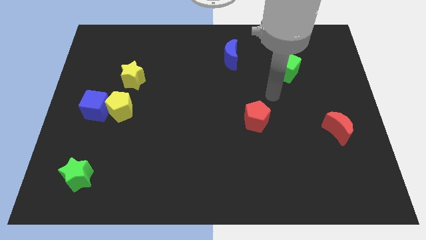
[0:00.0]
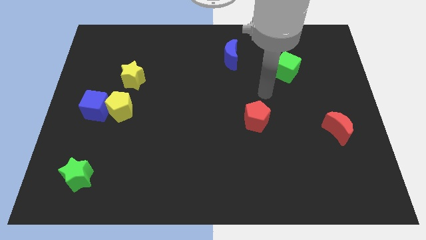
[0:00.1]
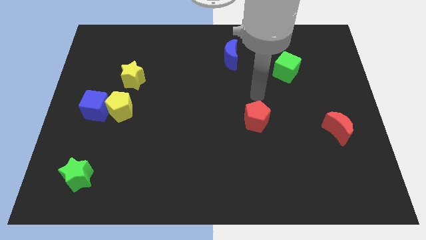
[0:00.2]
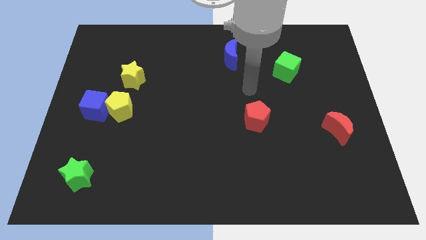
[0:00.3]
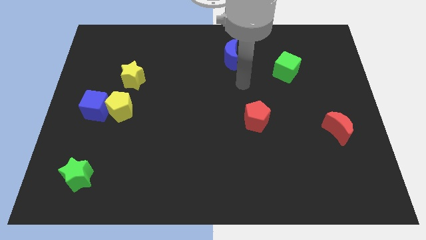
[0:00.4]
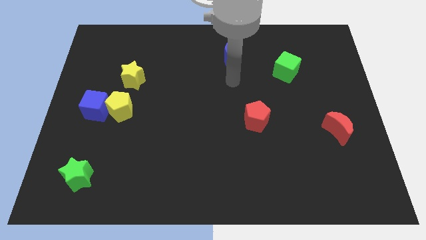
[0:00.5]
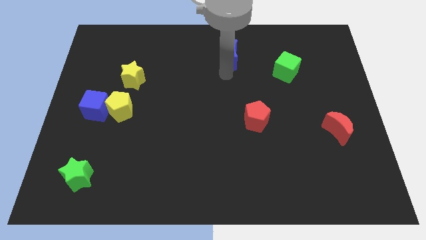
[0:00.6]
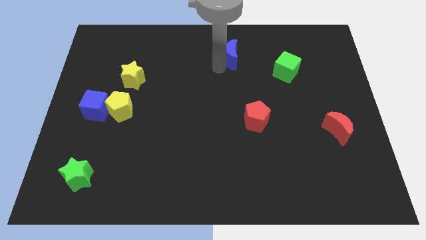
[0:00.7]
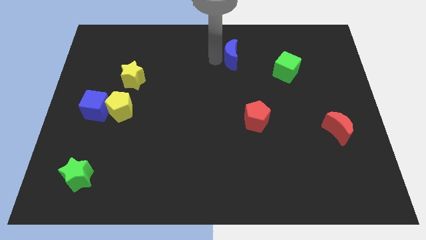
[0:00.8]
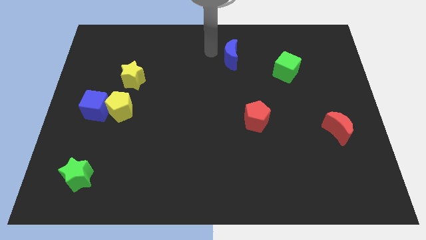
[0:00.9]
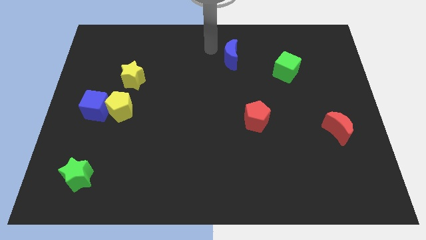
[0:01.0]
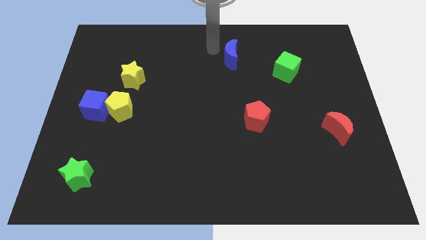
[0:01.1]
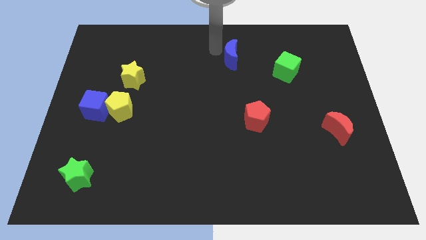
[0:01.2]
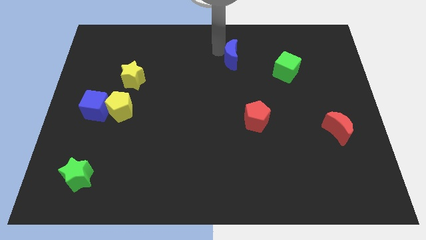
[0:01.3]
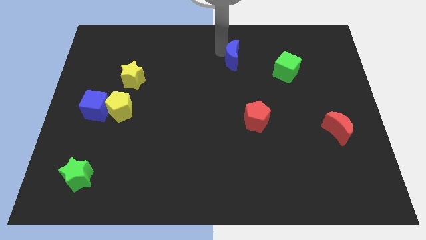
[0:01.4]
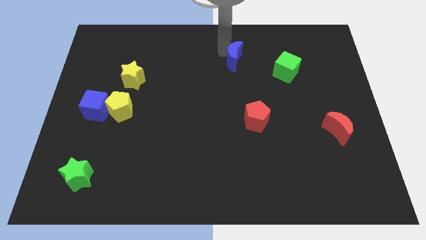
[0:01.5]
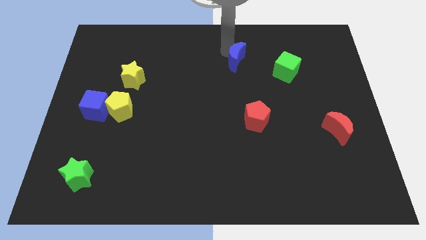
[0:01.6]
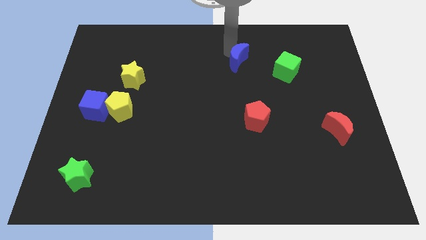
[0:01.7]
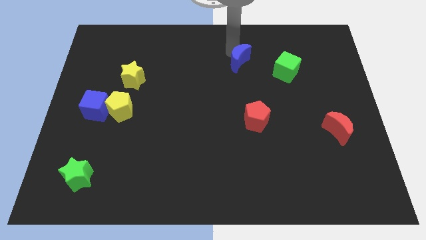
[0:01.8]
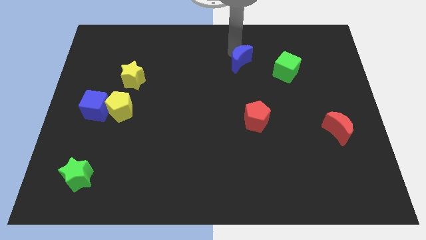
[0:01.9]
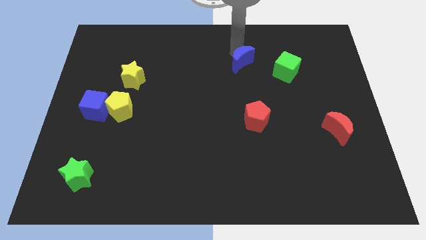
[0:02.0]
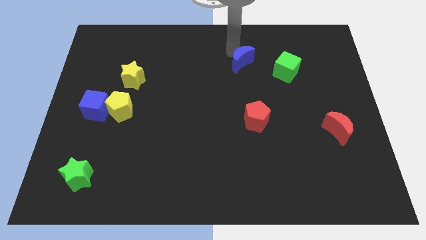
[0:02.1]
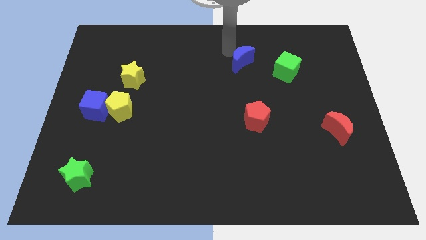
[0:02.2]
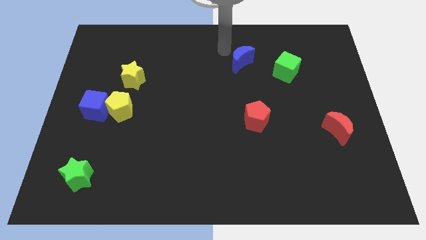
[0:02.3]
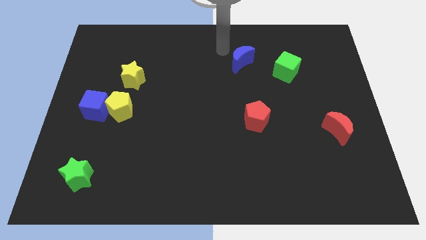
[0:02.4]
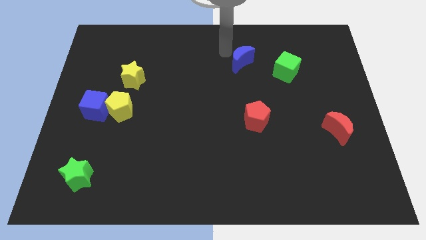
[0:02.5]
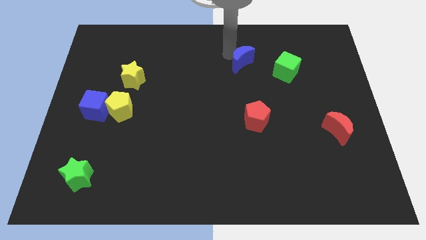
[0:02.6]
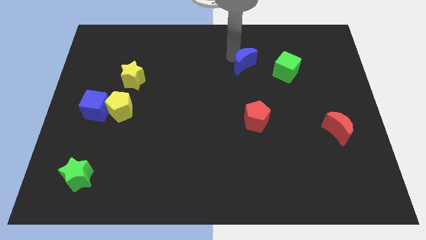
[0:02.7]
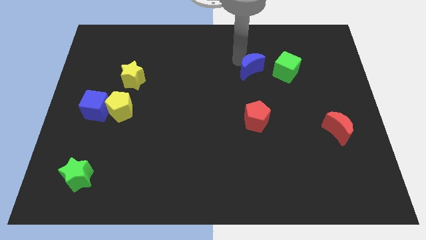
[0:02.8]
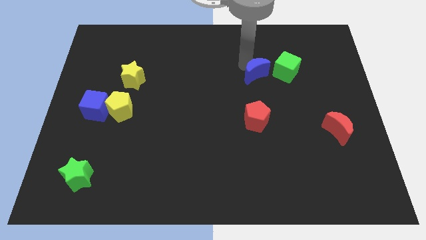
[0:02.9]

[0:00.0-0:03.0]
slide the blue moon down and to the right somewhat

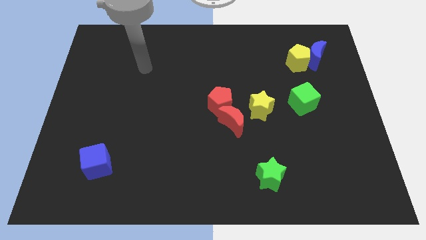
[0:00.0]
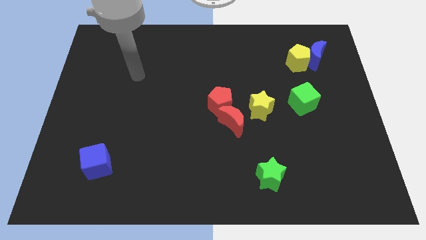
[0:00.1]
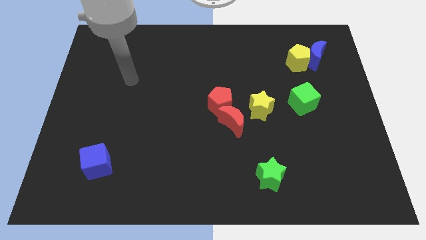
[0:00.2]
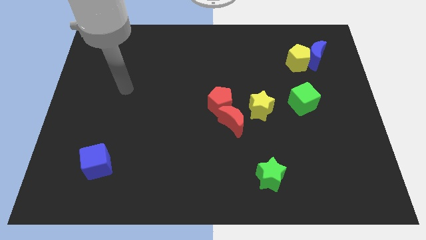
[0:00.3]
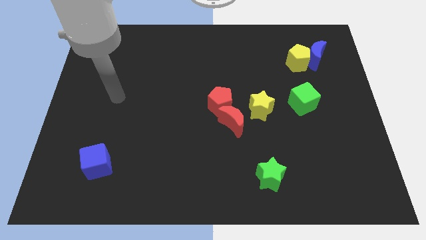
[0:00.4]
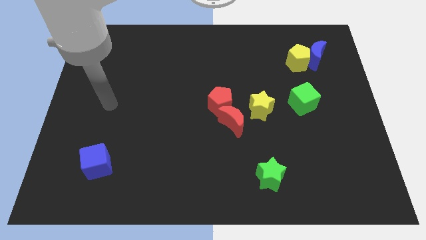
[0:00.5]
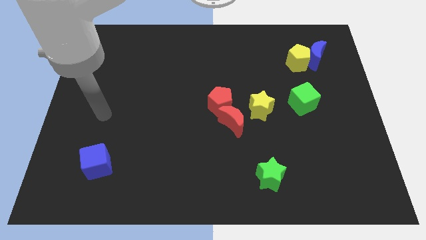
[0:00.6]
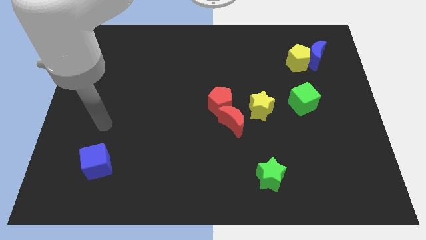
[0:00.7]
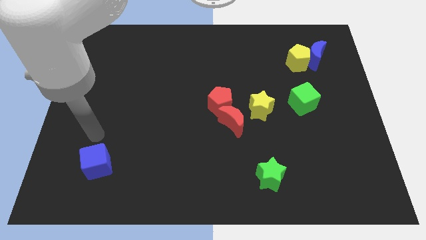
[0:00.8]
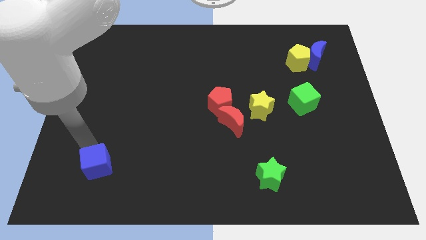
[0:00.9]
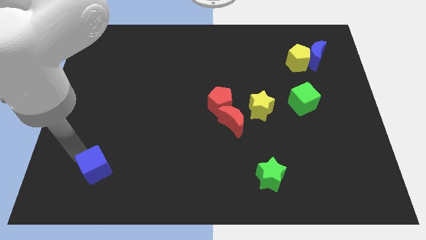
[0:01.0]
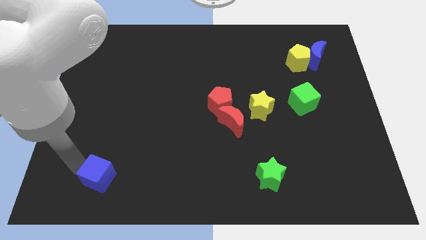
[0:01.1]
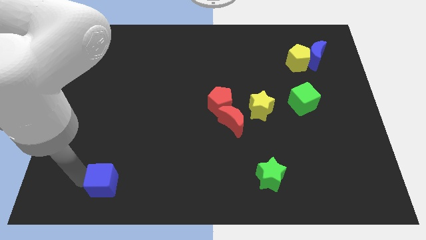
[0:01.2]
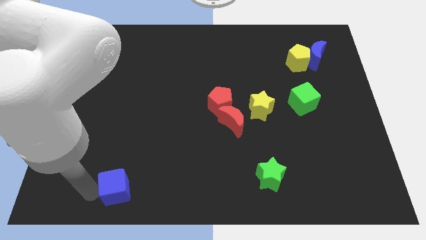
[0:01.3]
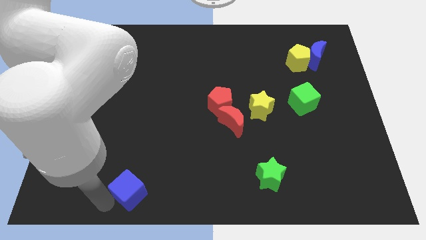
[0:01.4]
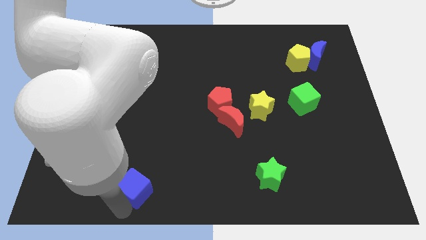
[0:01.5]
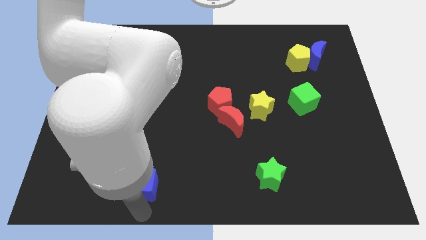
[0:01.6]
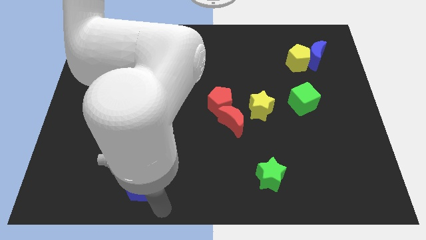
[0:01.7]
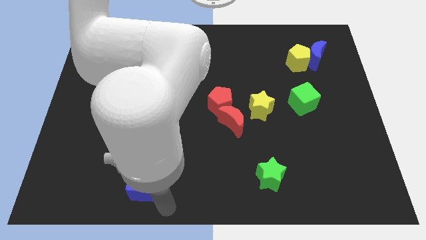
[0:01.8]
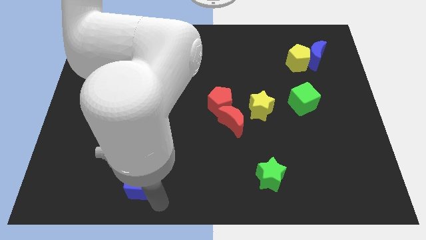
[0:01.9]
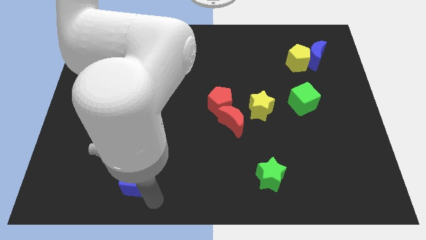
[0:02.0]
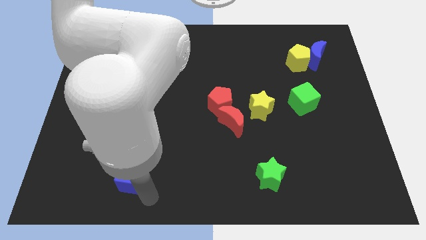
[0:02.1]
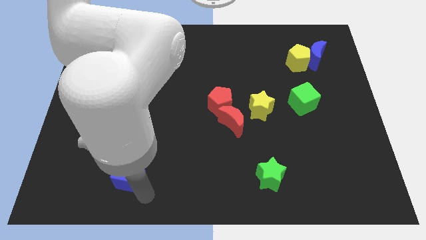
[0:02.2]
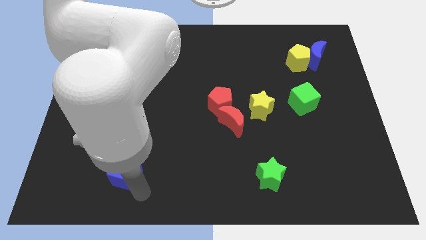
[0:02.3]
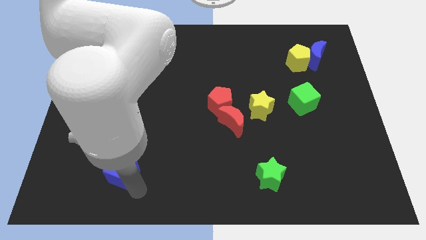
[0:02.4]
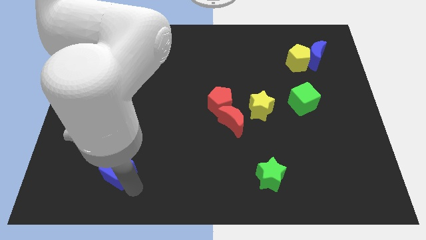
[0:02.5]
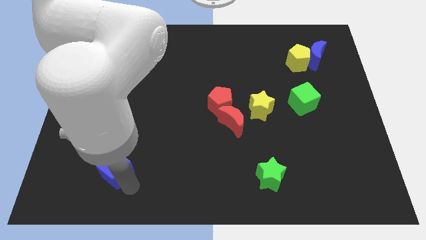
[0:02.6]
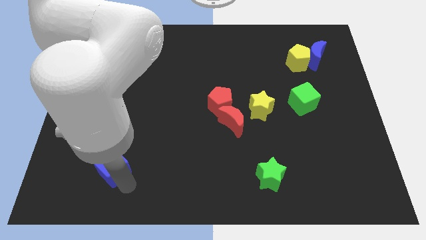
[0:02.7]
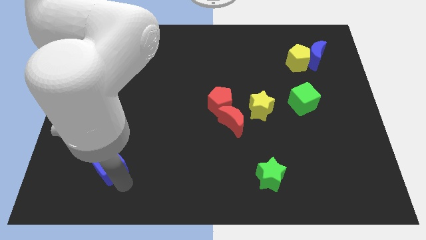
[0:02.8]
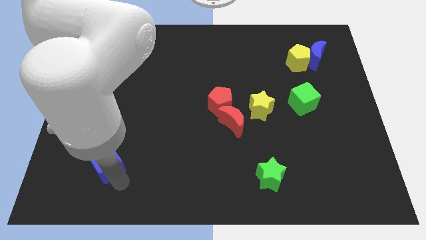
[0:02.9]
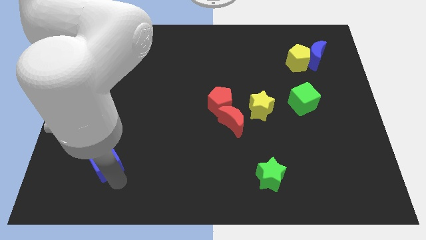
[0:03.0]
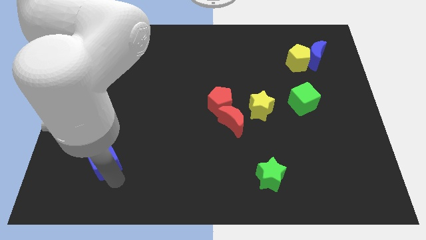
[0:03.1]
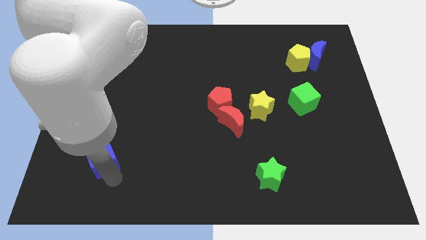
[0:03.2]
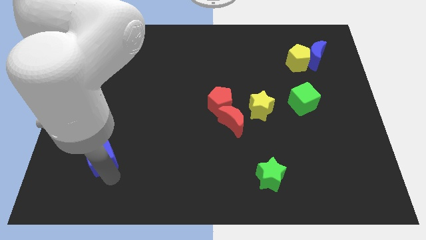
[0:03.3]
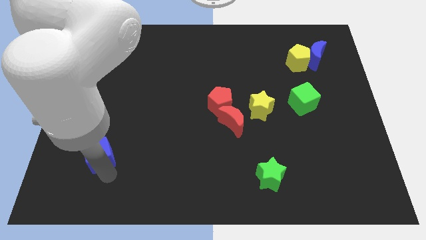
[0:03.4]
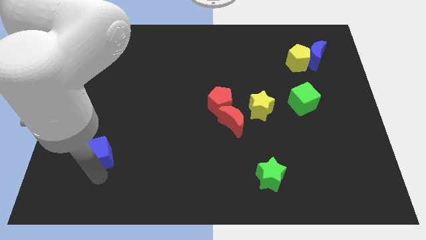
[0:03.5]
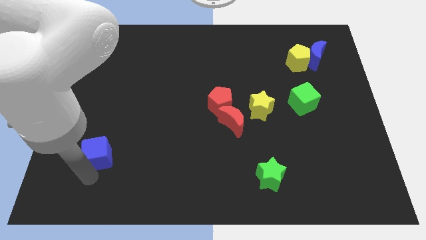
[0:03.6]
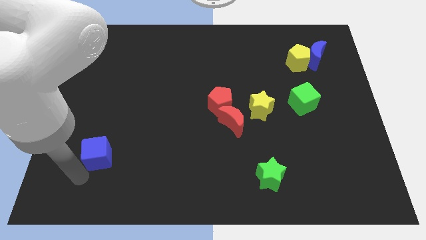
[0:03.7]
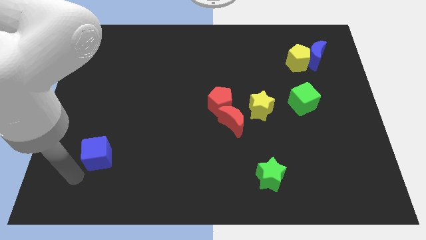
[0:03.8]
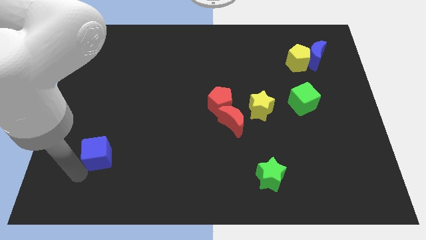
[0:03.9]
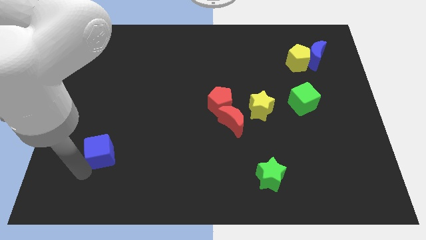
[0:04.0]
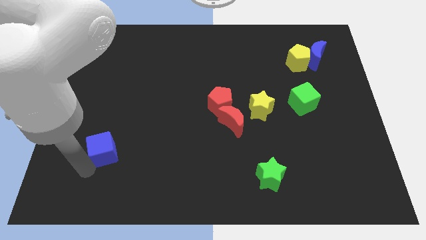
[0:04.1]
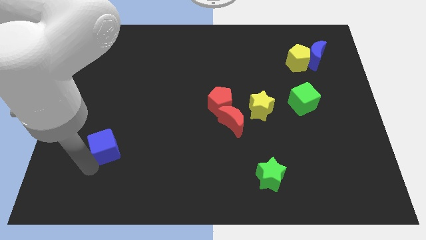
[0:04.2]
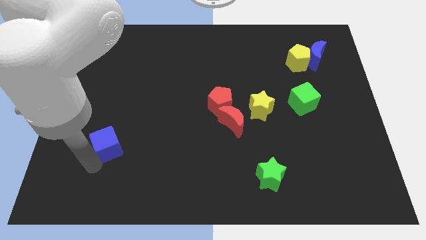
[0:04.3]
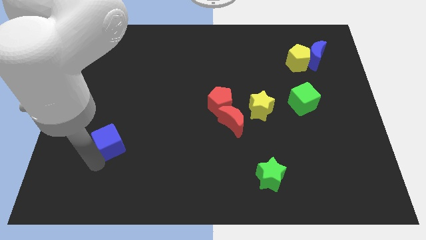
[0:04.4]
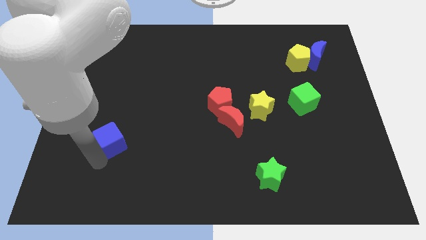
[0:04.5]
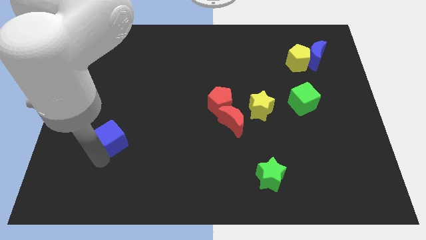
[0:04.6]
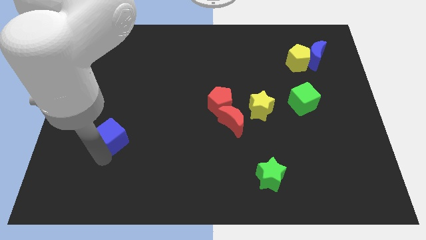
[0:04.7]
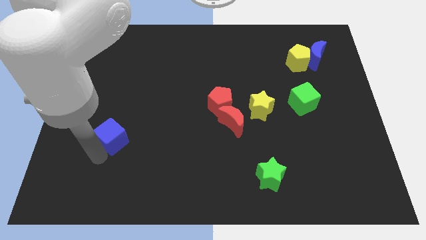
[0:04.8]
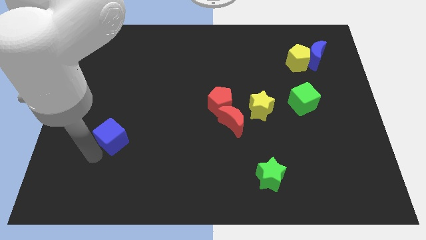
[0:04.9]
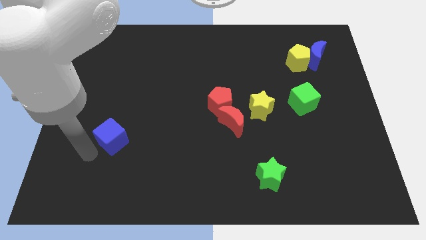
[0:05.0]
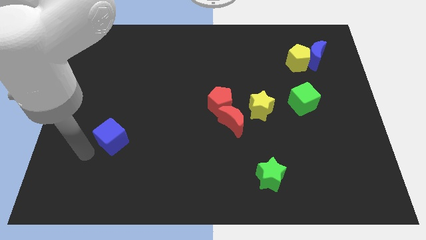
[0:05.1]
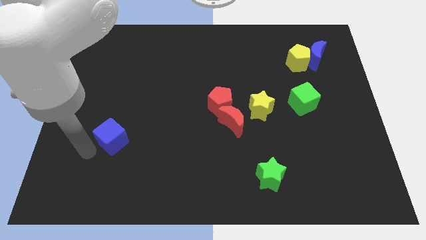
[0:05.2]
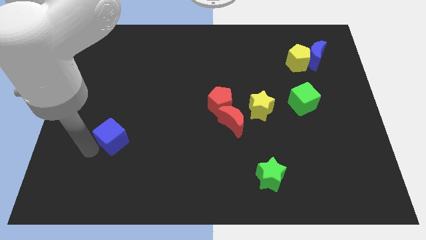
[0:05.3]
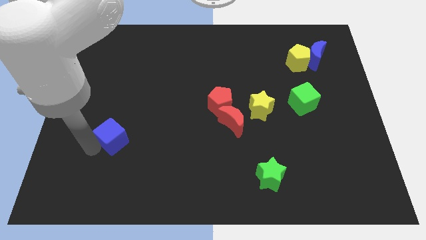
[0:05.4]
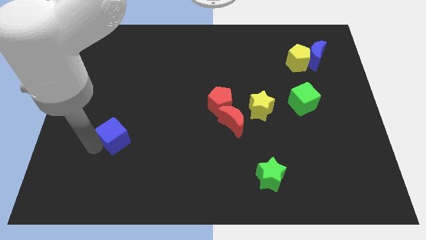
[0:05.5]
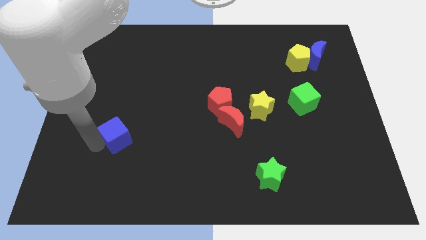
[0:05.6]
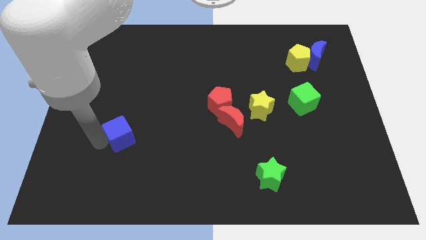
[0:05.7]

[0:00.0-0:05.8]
move the blue cube up and right diagonally slightly
